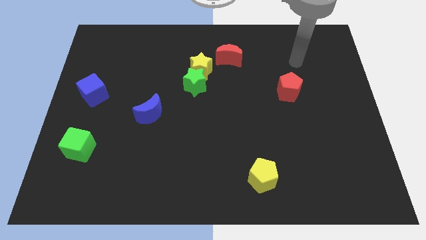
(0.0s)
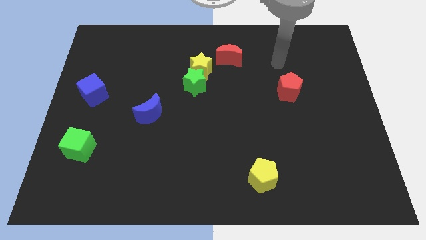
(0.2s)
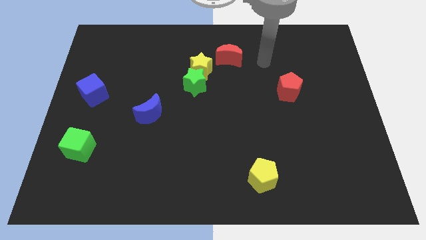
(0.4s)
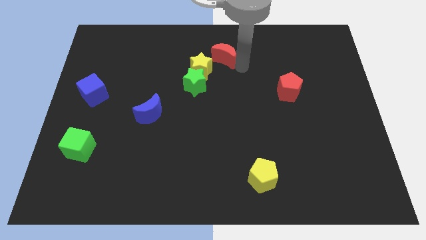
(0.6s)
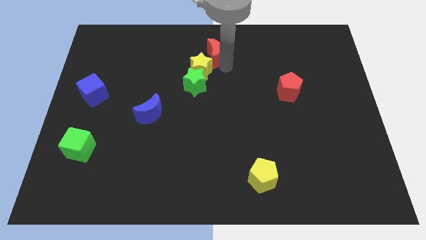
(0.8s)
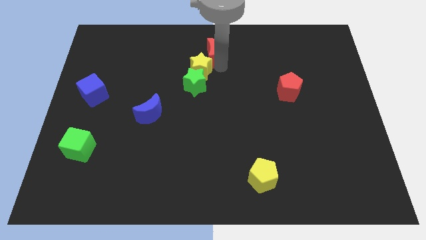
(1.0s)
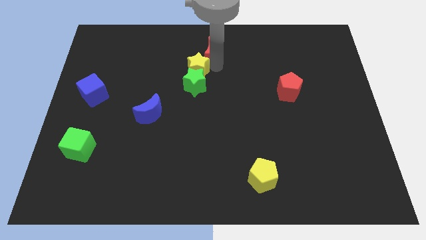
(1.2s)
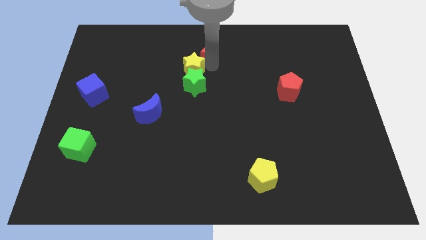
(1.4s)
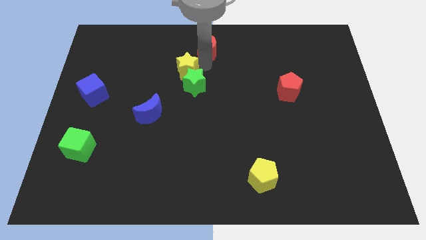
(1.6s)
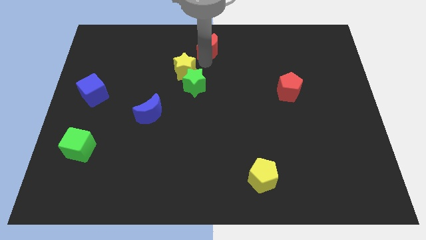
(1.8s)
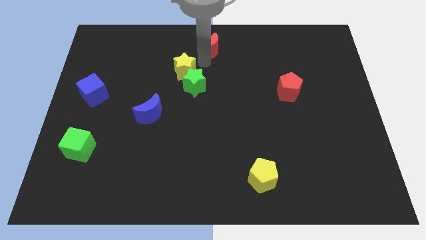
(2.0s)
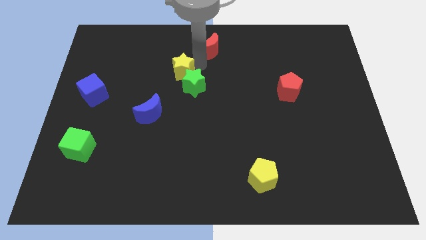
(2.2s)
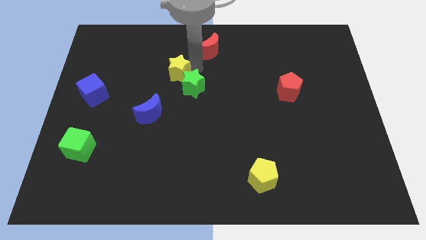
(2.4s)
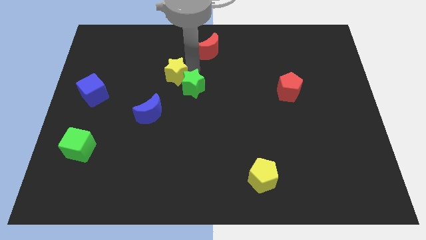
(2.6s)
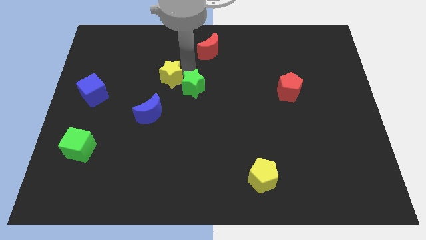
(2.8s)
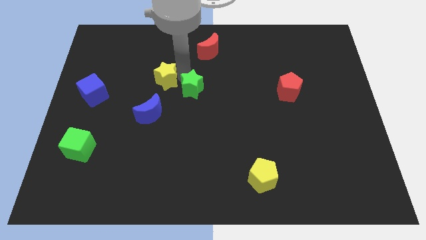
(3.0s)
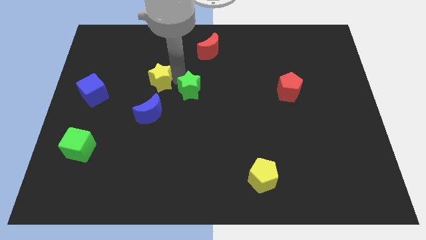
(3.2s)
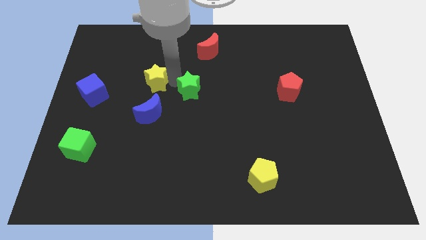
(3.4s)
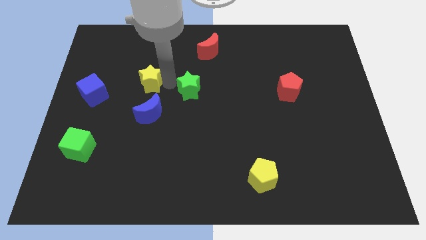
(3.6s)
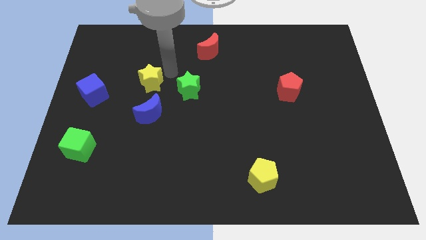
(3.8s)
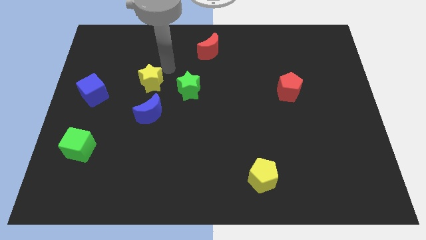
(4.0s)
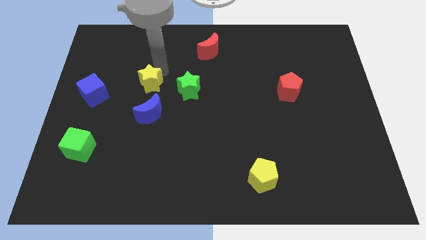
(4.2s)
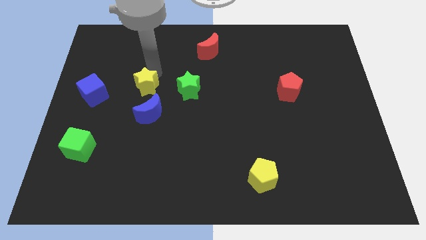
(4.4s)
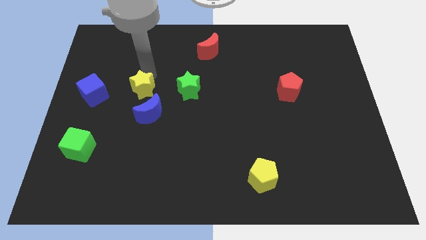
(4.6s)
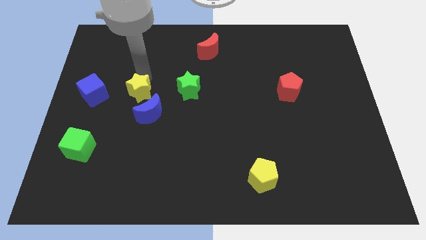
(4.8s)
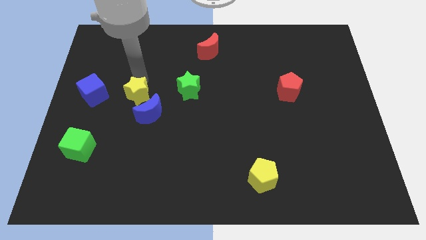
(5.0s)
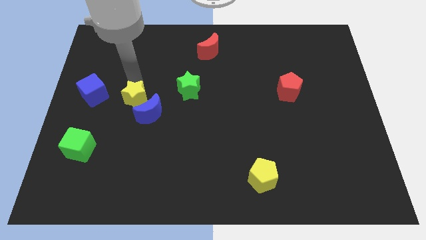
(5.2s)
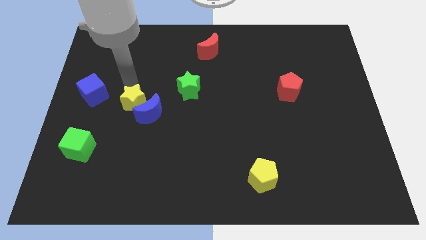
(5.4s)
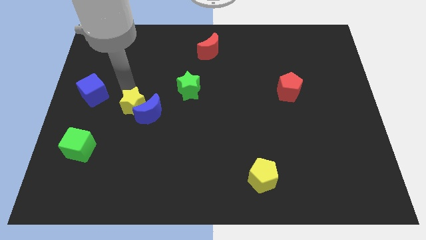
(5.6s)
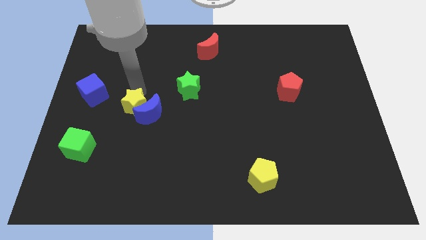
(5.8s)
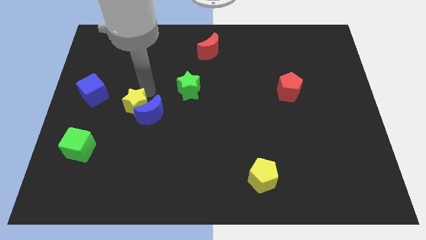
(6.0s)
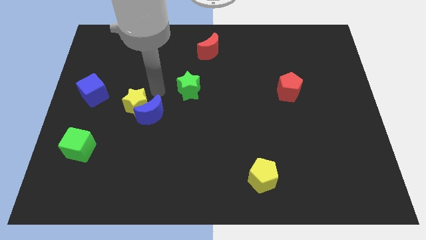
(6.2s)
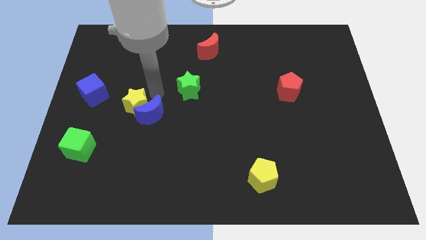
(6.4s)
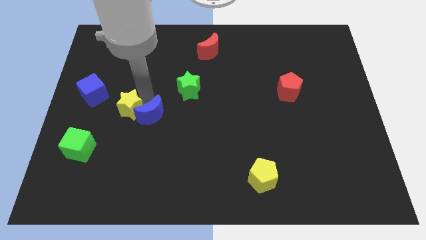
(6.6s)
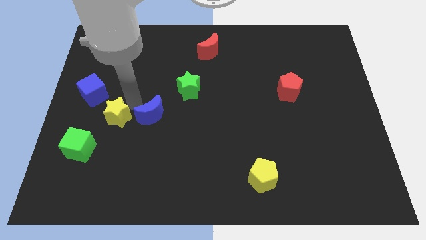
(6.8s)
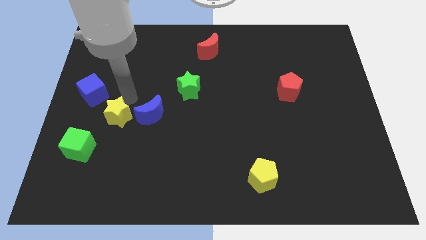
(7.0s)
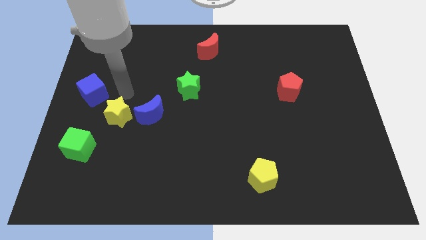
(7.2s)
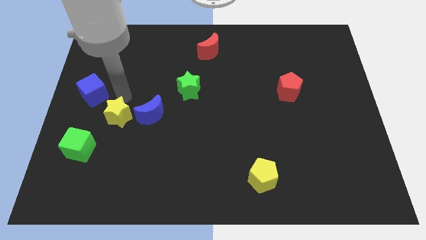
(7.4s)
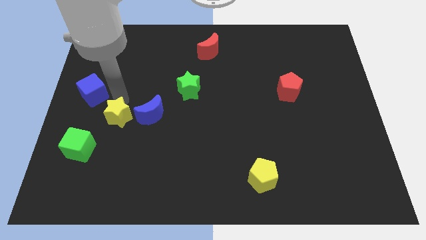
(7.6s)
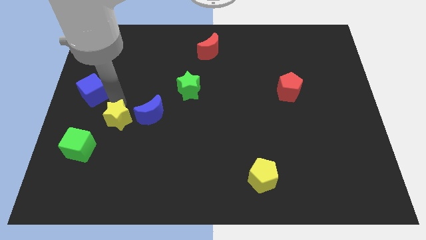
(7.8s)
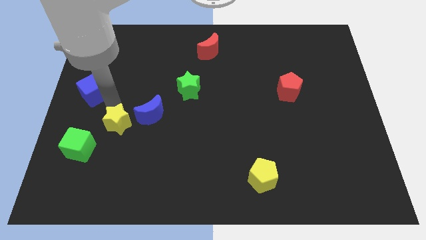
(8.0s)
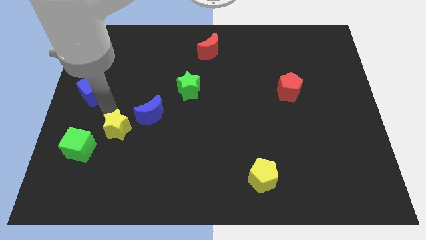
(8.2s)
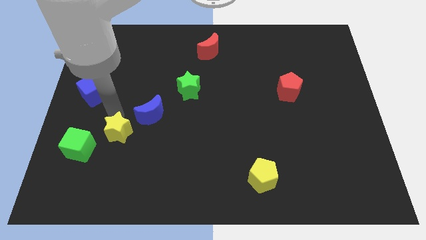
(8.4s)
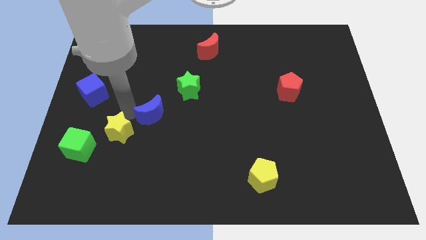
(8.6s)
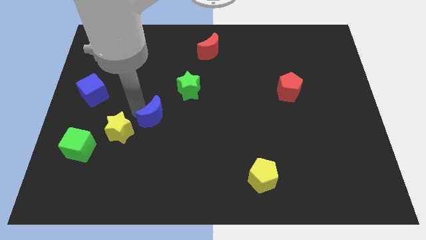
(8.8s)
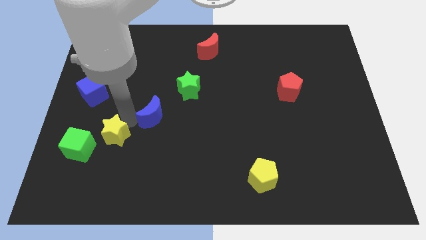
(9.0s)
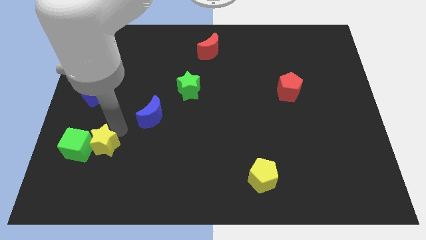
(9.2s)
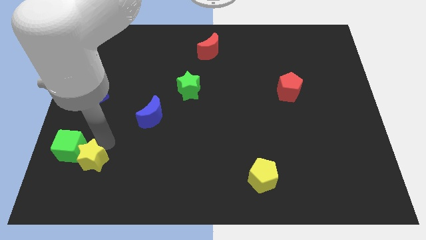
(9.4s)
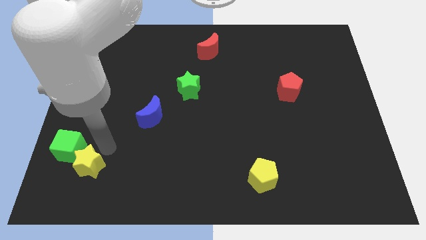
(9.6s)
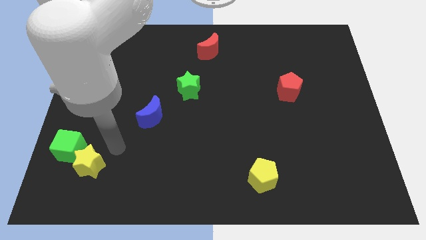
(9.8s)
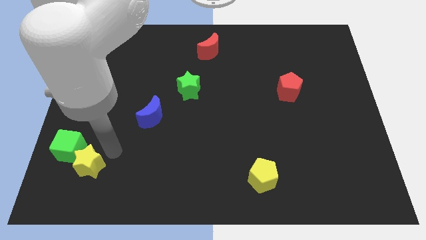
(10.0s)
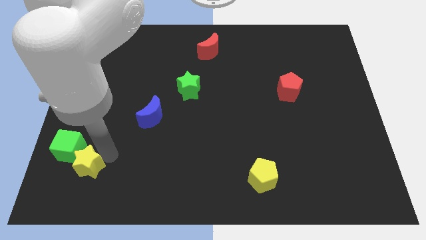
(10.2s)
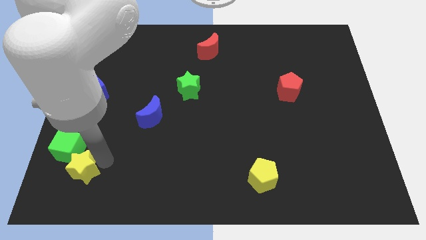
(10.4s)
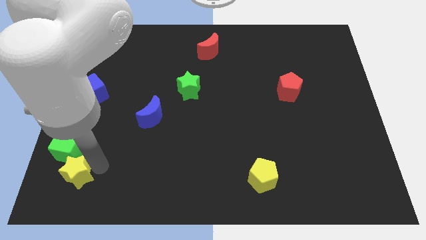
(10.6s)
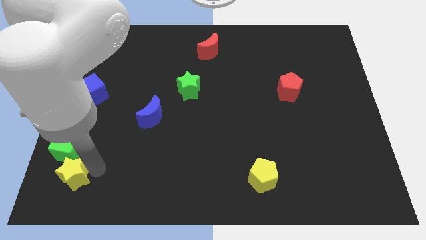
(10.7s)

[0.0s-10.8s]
move the yellow star to the bottom left of the board

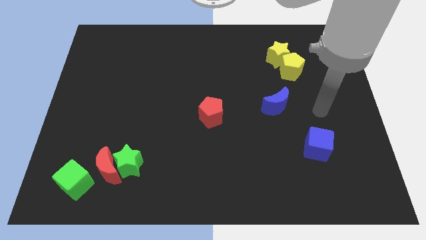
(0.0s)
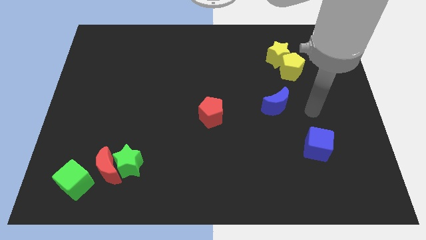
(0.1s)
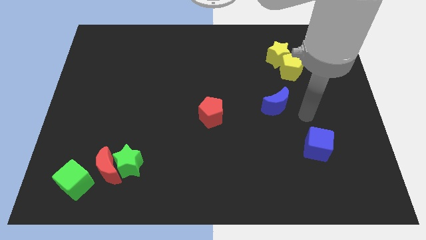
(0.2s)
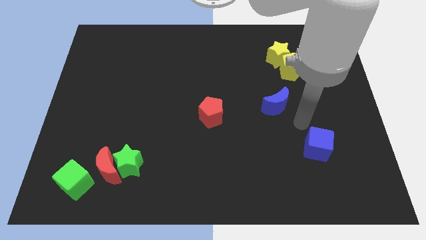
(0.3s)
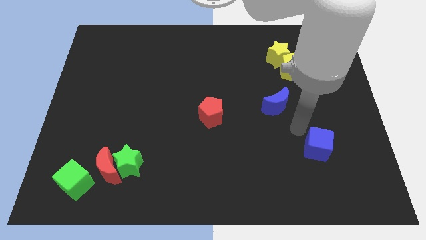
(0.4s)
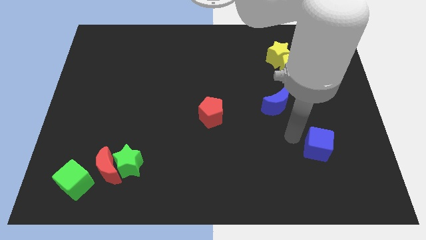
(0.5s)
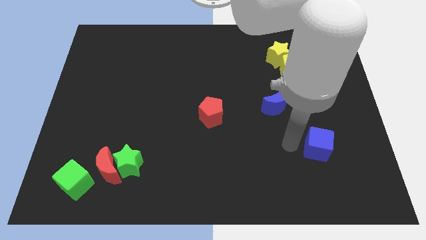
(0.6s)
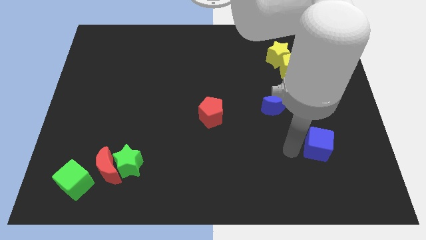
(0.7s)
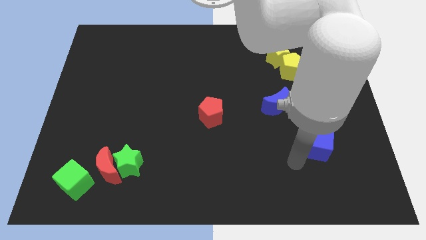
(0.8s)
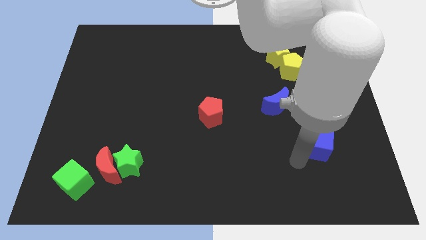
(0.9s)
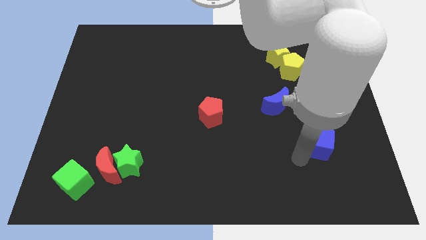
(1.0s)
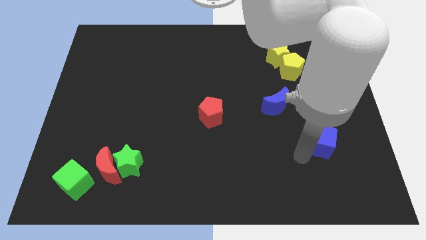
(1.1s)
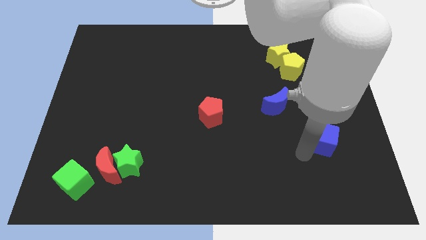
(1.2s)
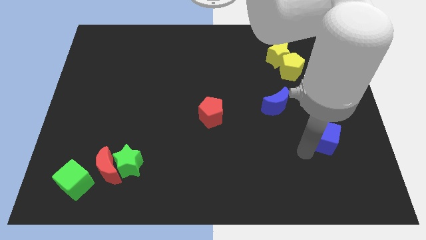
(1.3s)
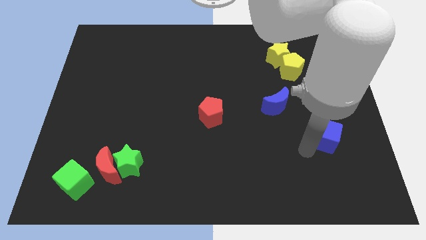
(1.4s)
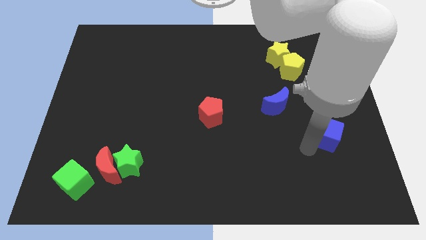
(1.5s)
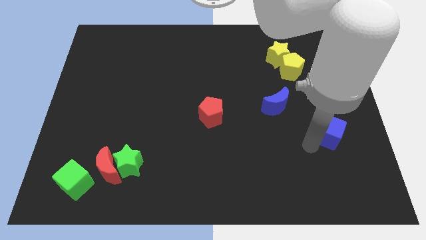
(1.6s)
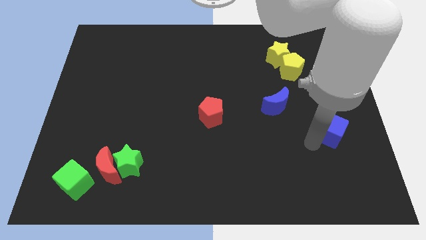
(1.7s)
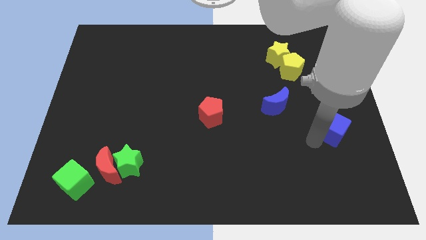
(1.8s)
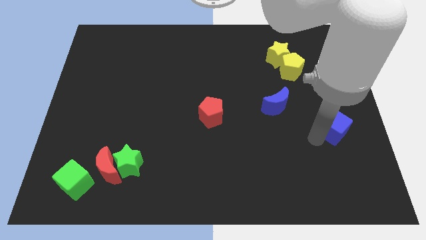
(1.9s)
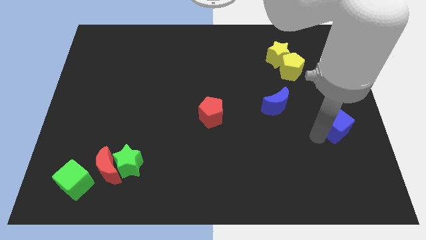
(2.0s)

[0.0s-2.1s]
put the blue cube to the center right
